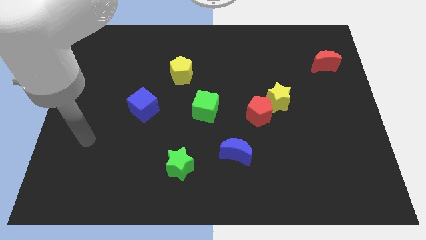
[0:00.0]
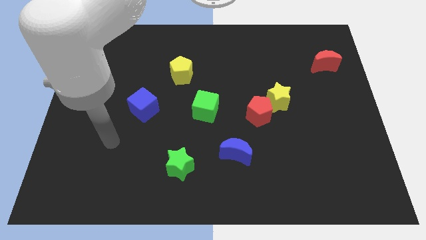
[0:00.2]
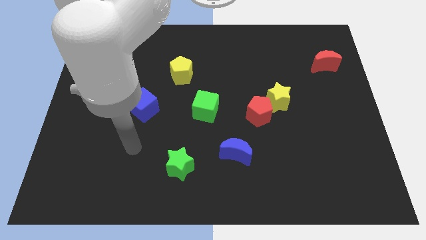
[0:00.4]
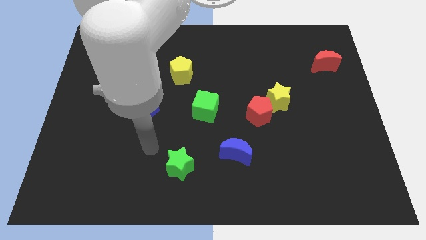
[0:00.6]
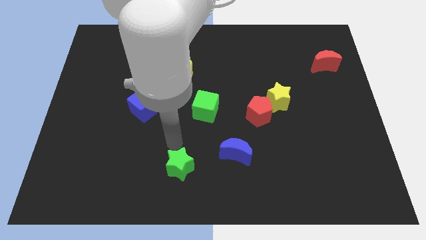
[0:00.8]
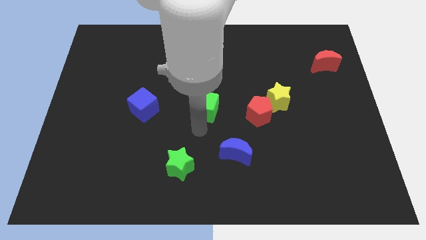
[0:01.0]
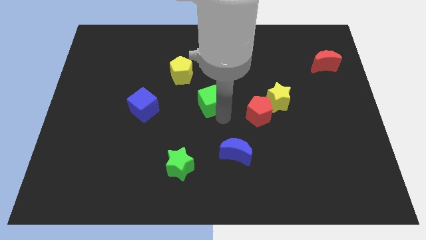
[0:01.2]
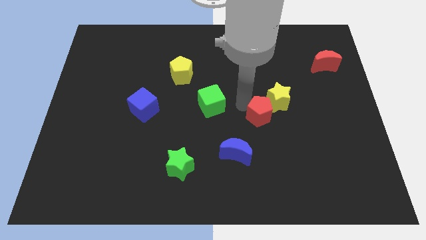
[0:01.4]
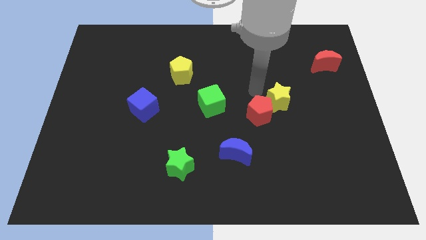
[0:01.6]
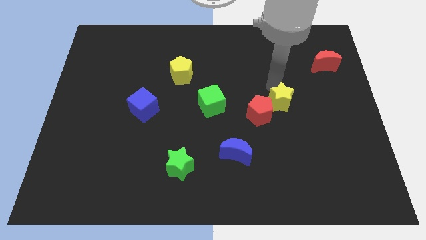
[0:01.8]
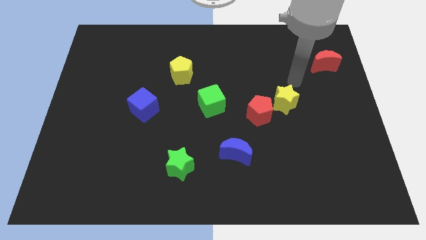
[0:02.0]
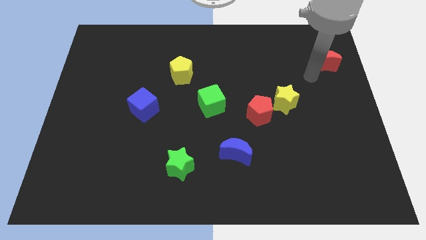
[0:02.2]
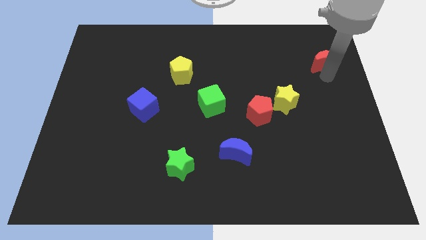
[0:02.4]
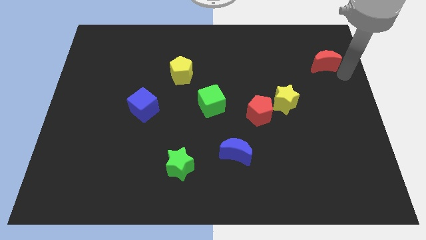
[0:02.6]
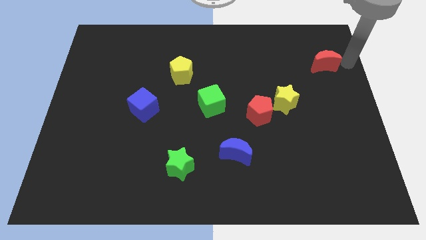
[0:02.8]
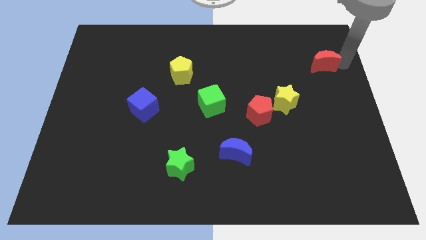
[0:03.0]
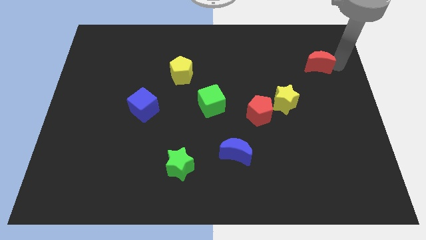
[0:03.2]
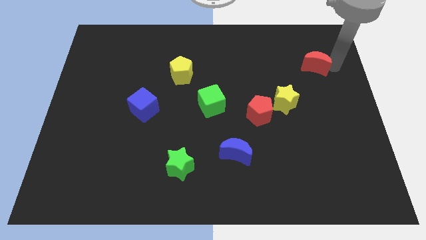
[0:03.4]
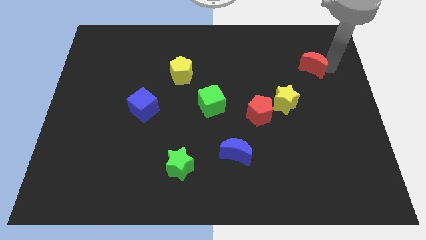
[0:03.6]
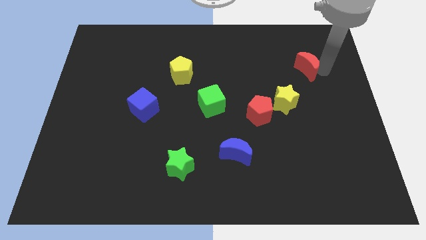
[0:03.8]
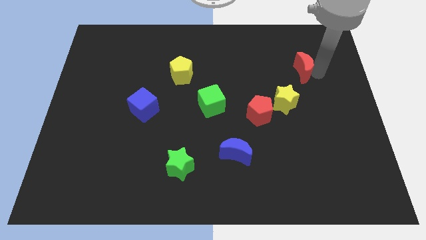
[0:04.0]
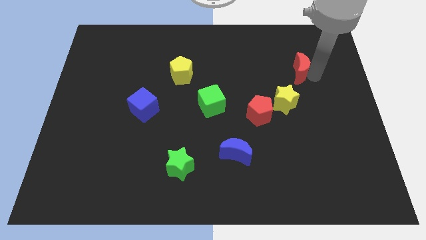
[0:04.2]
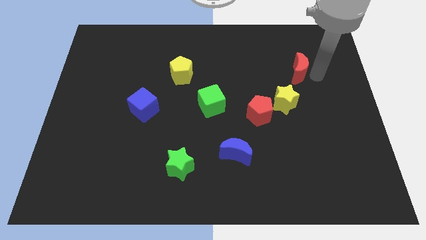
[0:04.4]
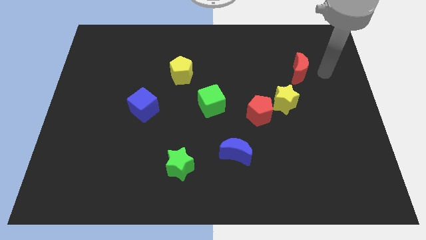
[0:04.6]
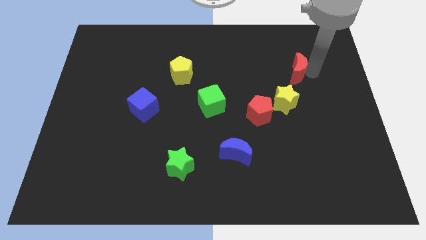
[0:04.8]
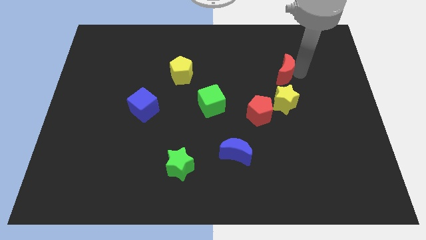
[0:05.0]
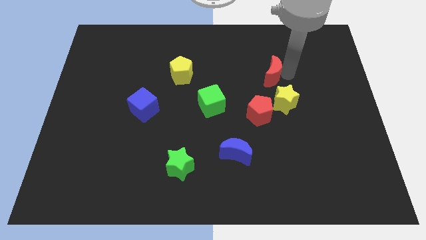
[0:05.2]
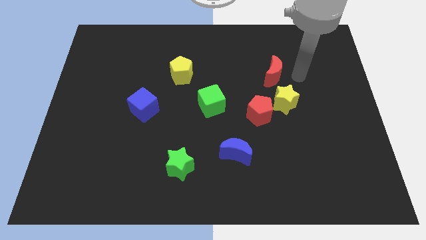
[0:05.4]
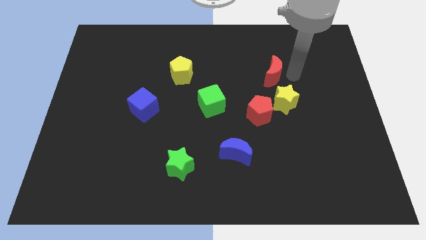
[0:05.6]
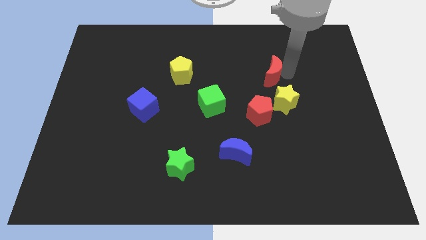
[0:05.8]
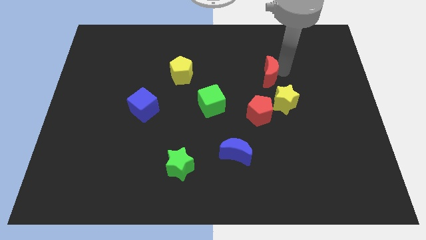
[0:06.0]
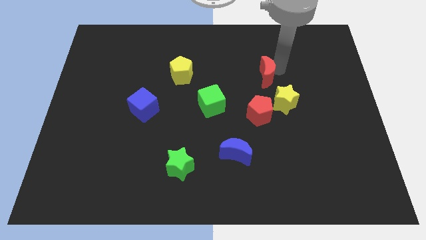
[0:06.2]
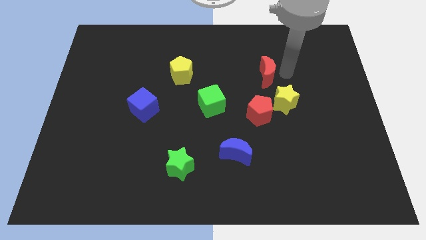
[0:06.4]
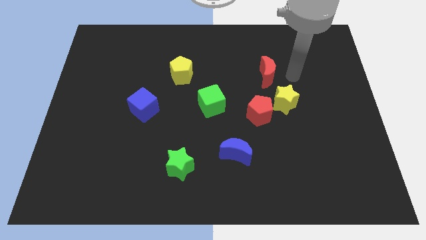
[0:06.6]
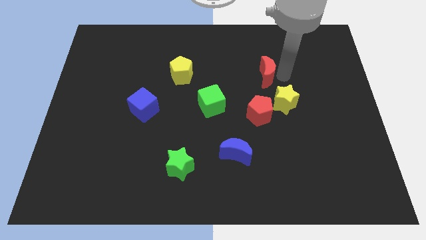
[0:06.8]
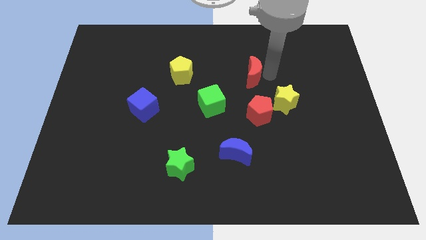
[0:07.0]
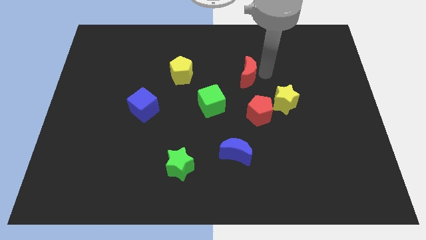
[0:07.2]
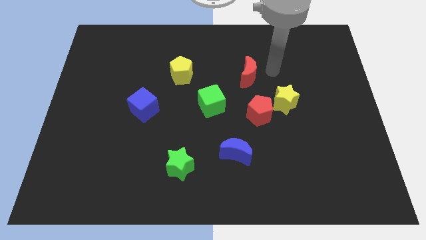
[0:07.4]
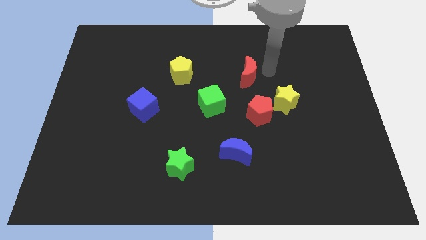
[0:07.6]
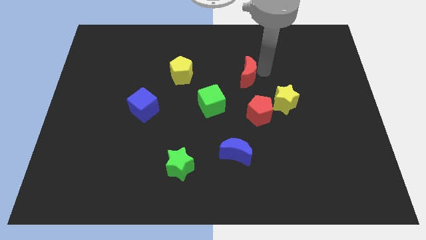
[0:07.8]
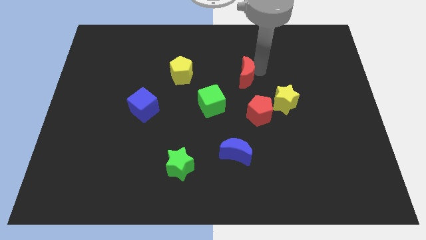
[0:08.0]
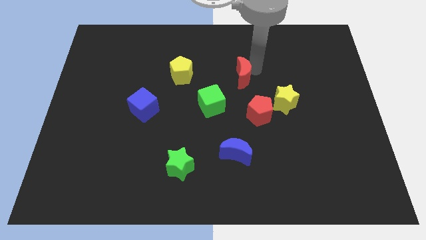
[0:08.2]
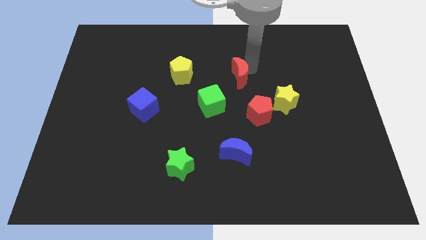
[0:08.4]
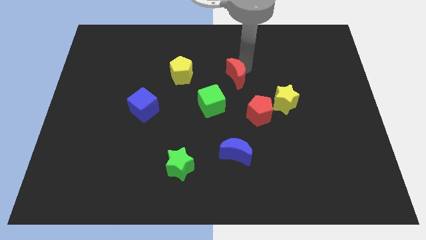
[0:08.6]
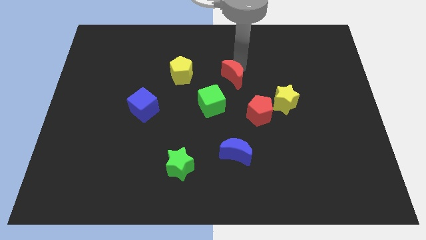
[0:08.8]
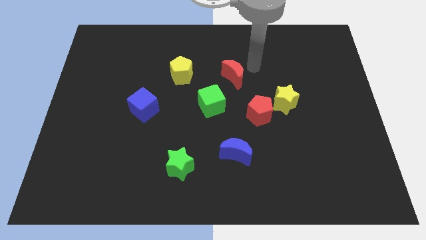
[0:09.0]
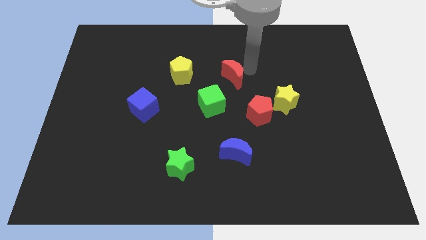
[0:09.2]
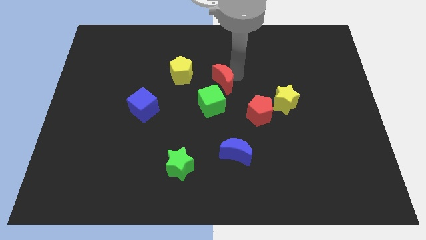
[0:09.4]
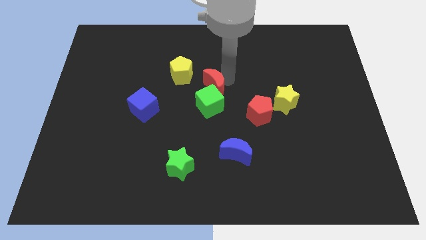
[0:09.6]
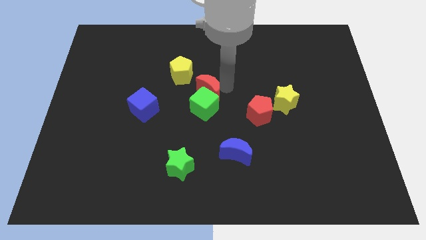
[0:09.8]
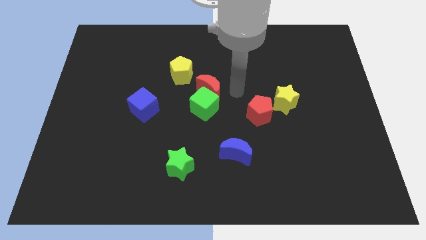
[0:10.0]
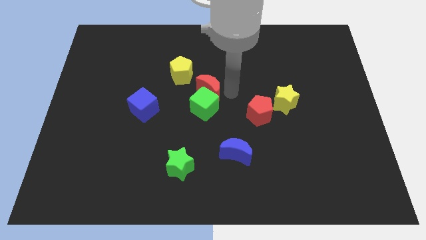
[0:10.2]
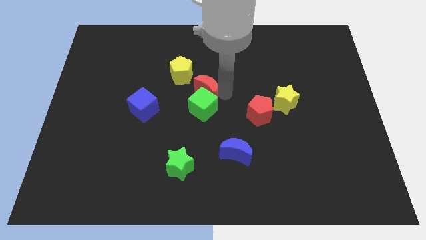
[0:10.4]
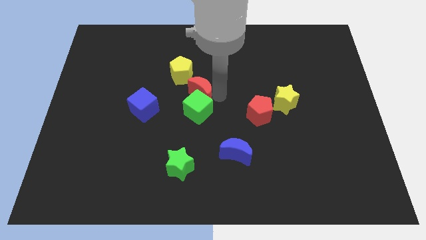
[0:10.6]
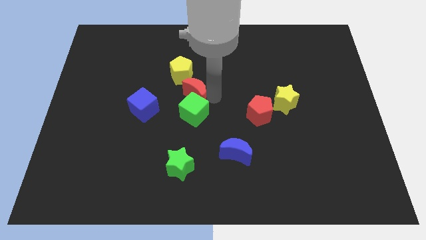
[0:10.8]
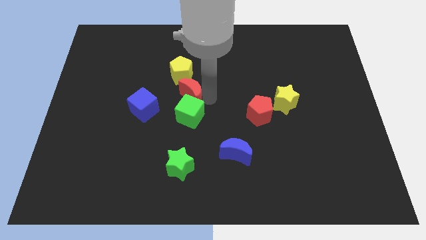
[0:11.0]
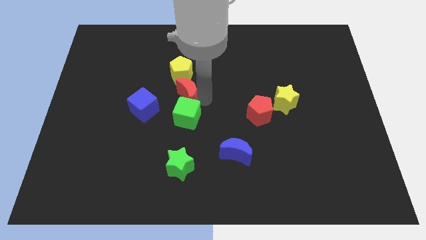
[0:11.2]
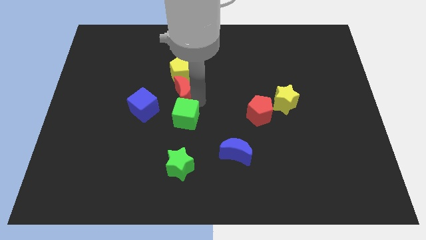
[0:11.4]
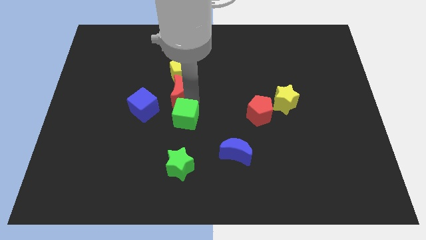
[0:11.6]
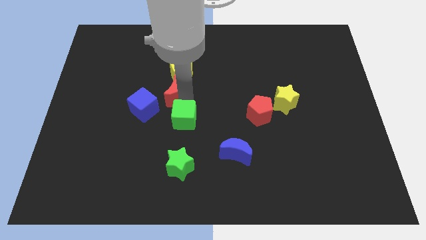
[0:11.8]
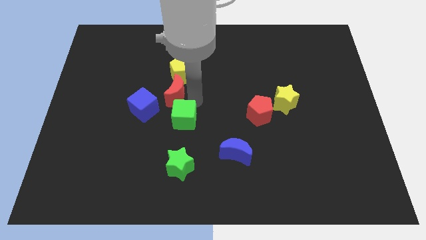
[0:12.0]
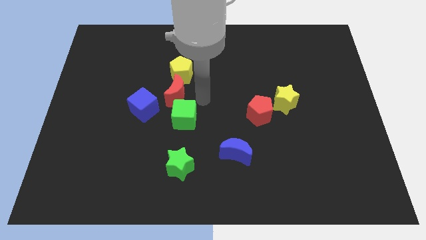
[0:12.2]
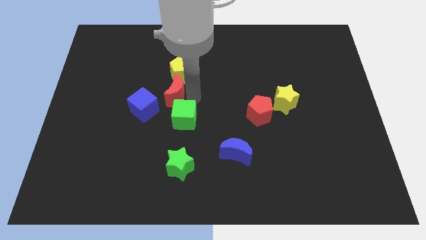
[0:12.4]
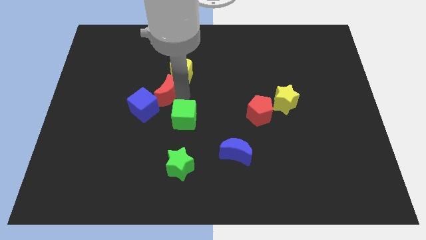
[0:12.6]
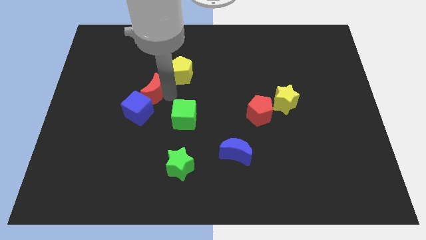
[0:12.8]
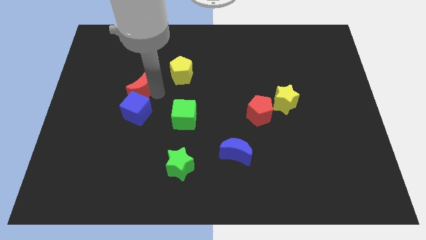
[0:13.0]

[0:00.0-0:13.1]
push the red moon to the top left of the blue cube
